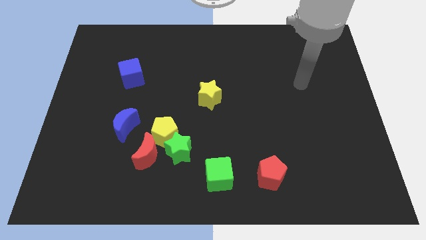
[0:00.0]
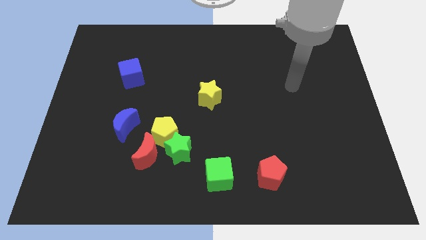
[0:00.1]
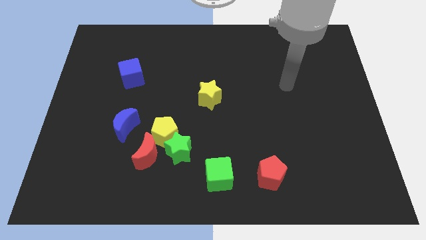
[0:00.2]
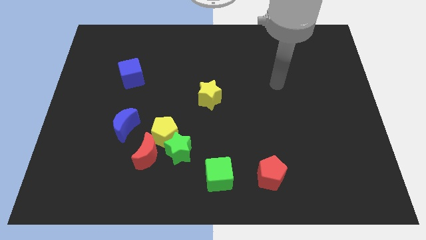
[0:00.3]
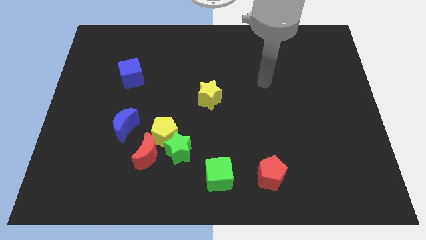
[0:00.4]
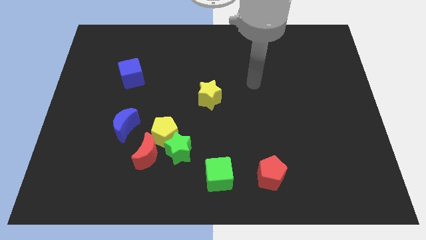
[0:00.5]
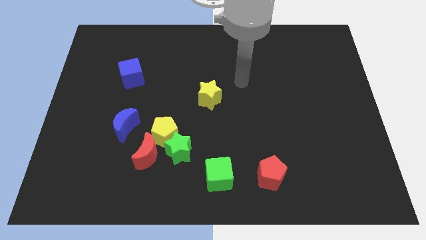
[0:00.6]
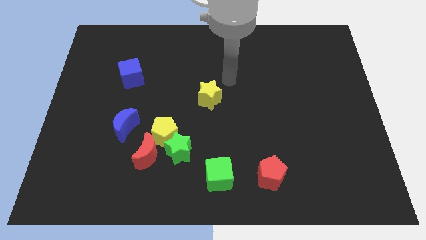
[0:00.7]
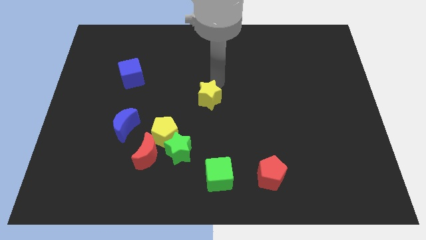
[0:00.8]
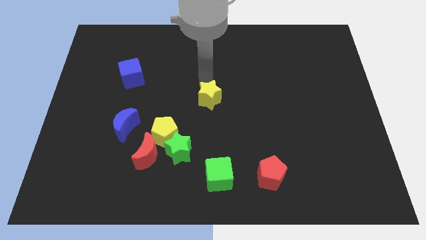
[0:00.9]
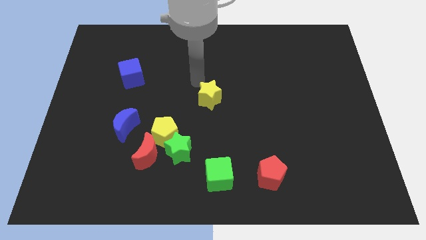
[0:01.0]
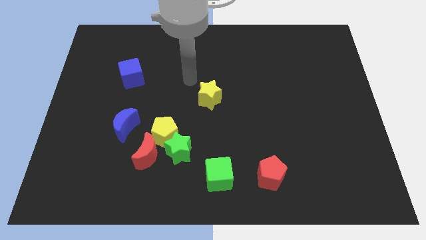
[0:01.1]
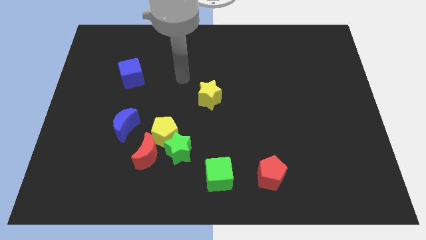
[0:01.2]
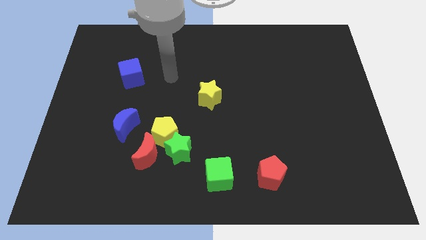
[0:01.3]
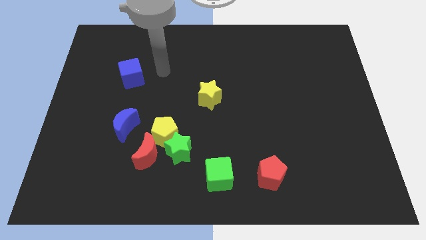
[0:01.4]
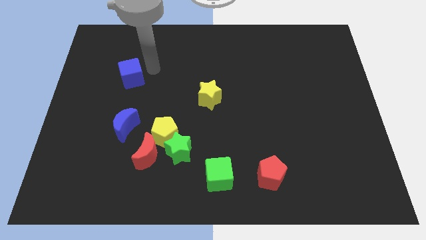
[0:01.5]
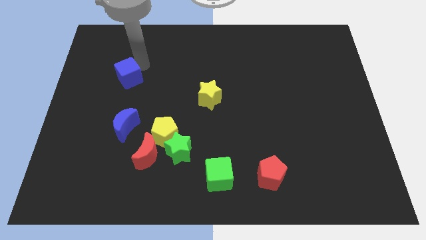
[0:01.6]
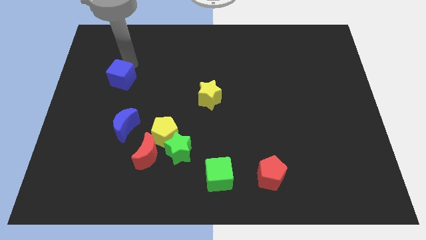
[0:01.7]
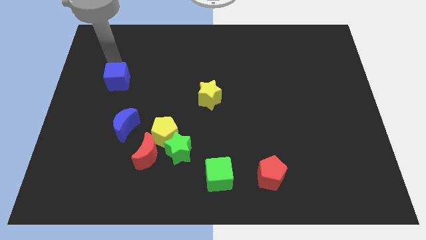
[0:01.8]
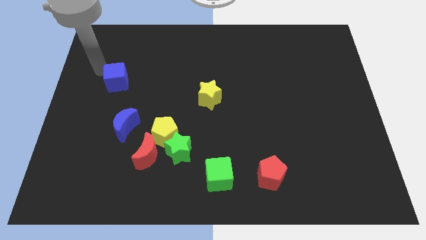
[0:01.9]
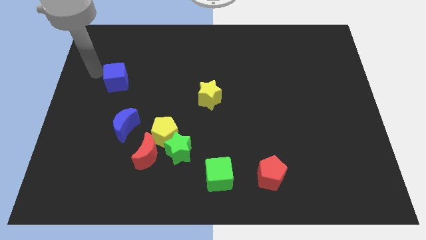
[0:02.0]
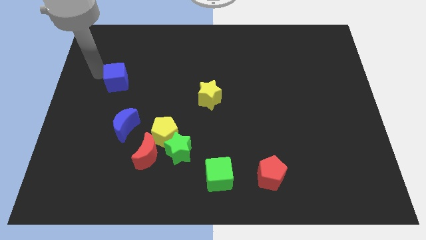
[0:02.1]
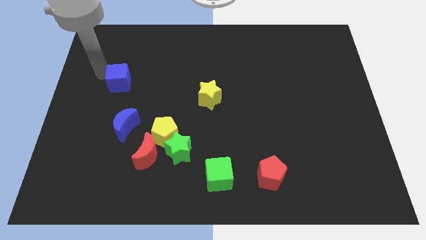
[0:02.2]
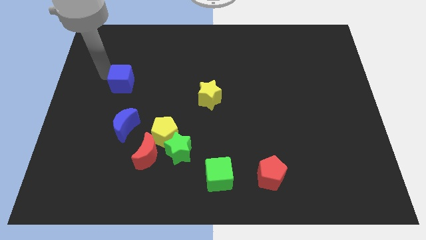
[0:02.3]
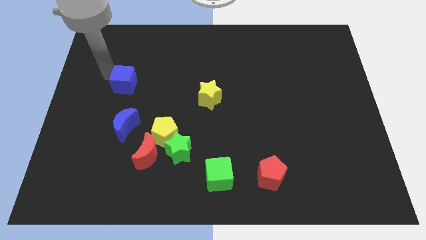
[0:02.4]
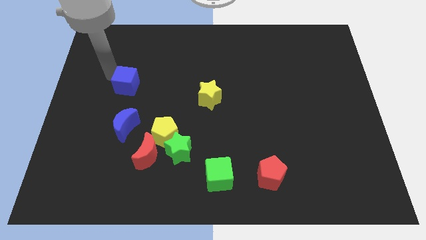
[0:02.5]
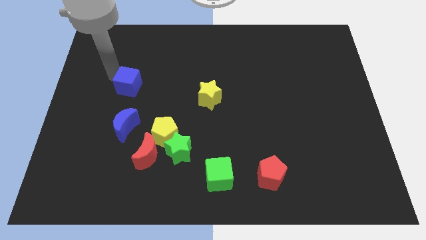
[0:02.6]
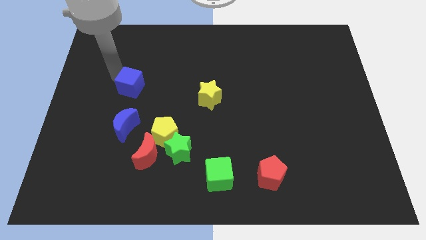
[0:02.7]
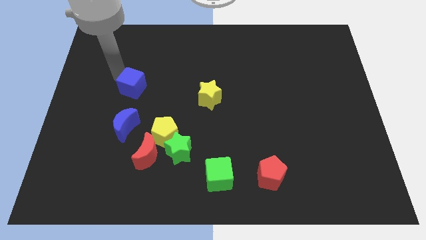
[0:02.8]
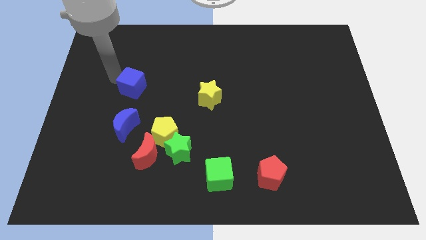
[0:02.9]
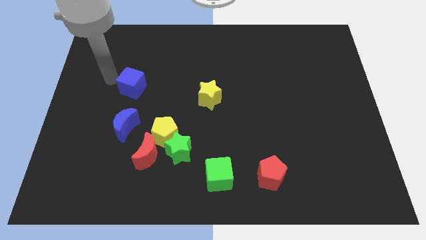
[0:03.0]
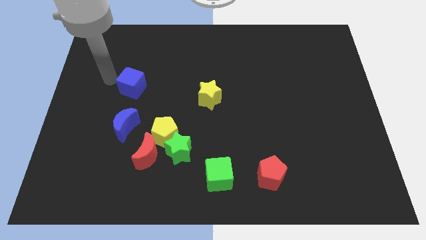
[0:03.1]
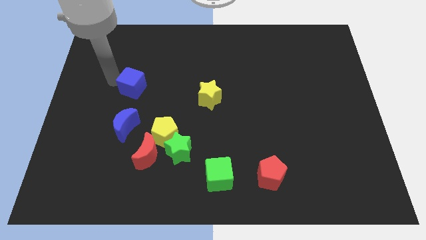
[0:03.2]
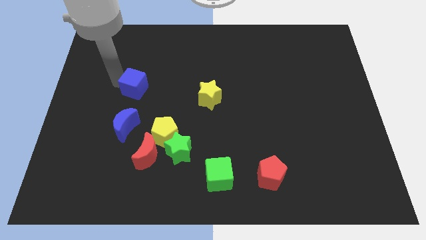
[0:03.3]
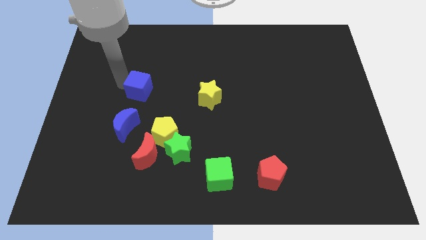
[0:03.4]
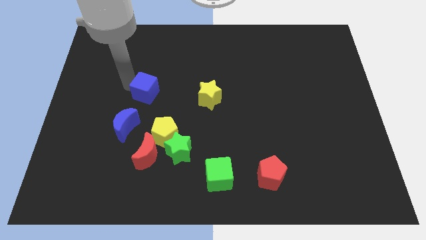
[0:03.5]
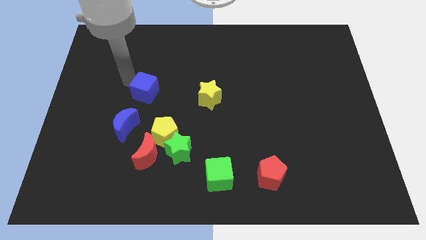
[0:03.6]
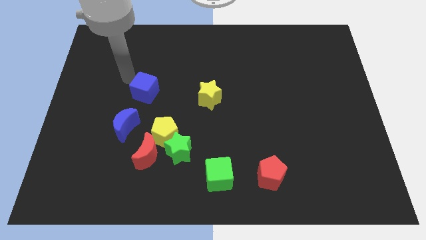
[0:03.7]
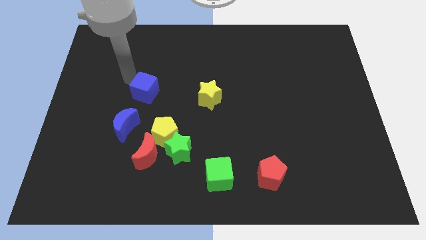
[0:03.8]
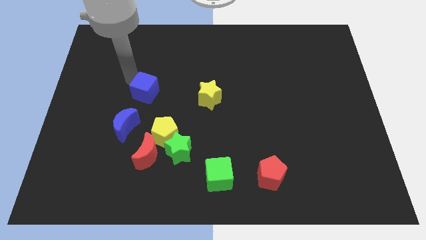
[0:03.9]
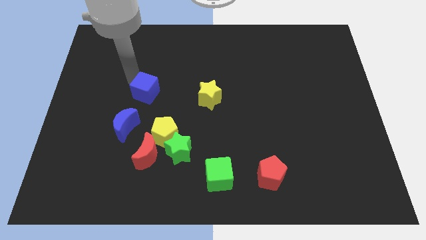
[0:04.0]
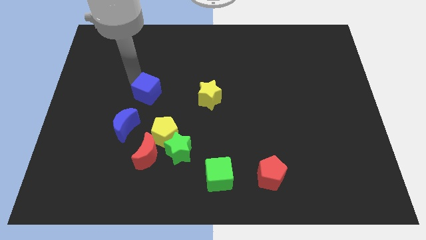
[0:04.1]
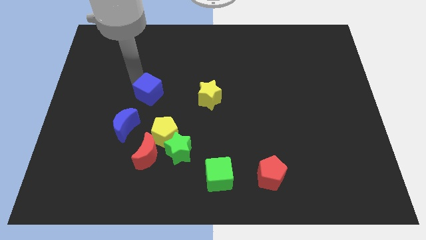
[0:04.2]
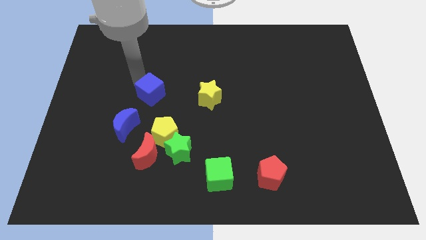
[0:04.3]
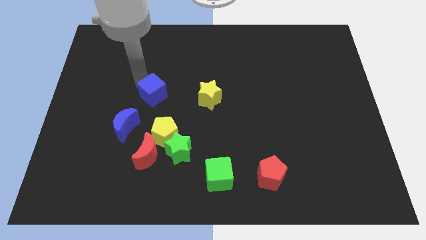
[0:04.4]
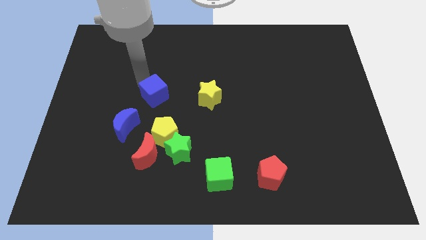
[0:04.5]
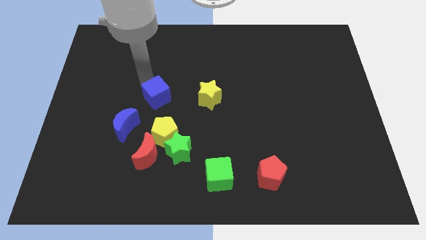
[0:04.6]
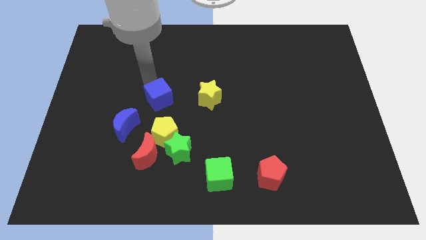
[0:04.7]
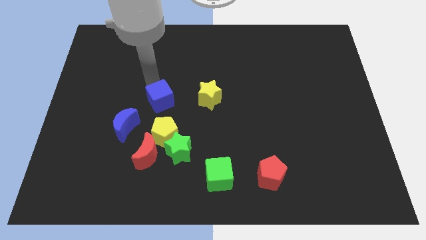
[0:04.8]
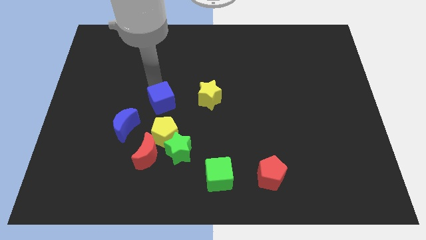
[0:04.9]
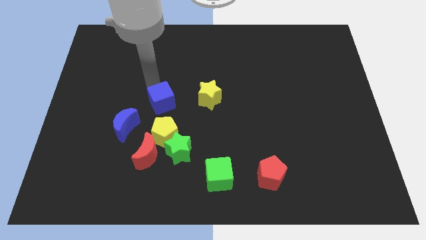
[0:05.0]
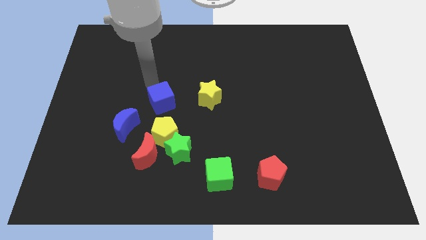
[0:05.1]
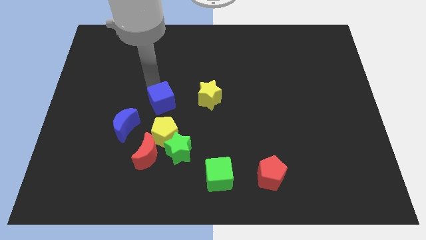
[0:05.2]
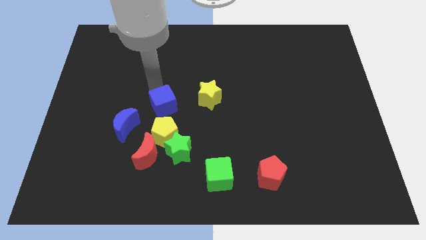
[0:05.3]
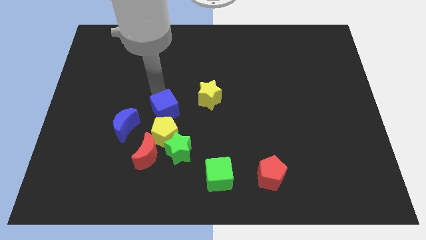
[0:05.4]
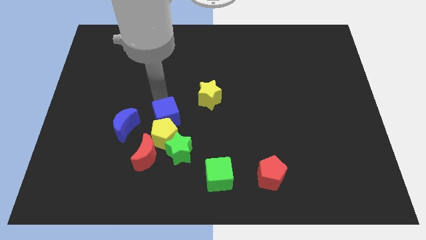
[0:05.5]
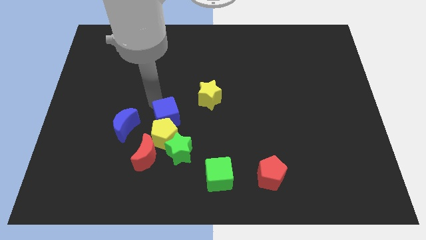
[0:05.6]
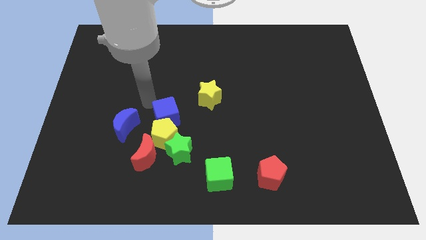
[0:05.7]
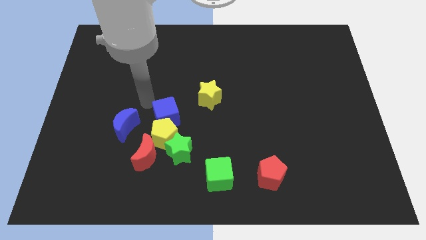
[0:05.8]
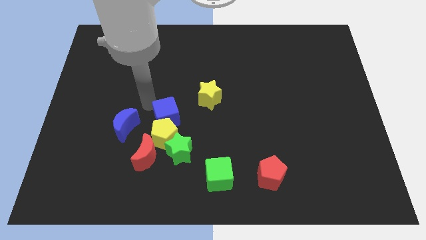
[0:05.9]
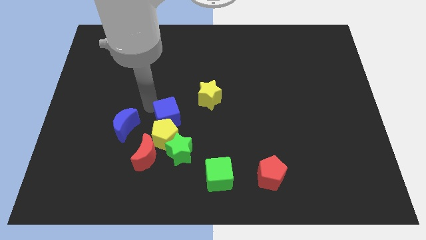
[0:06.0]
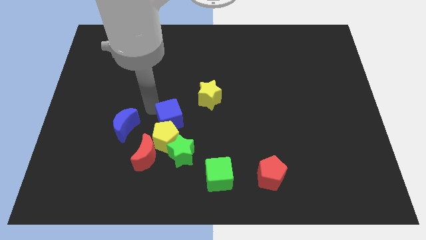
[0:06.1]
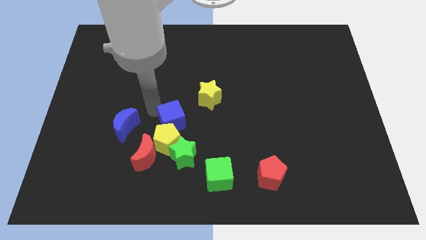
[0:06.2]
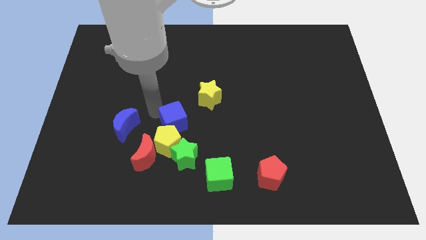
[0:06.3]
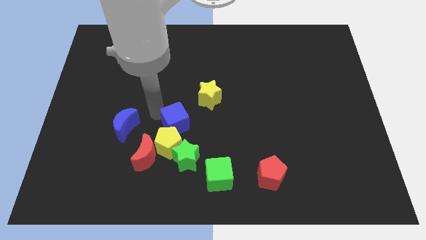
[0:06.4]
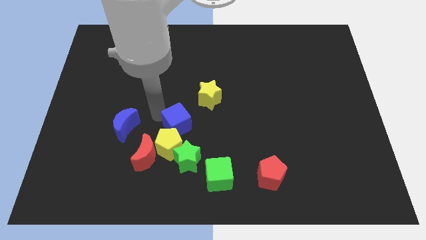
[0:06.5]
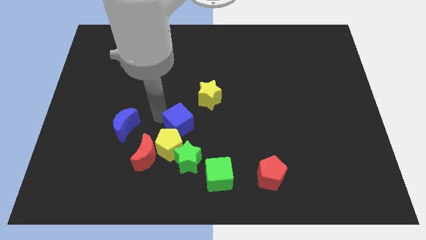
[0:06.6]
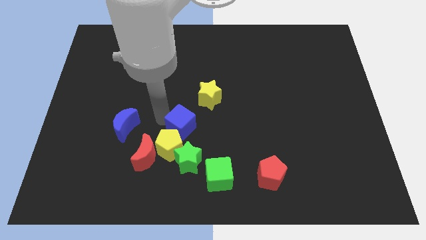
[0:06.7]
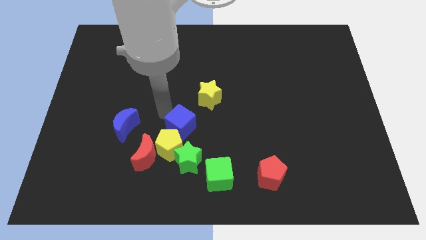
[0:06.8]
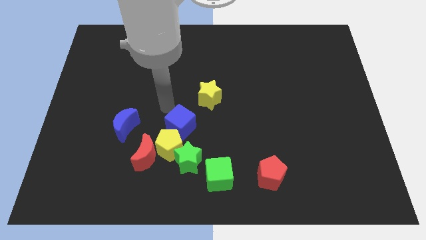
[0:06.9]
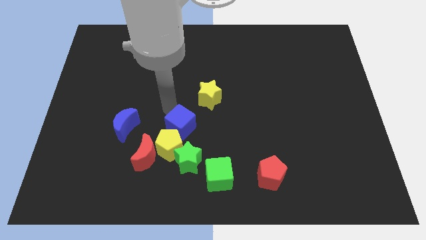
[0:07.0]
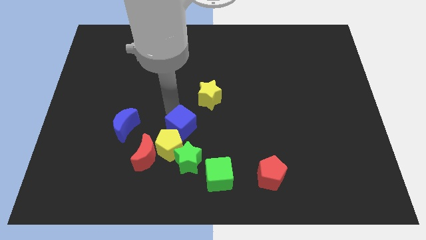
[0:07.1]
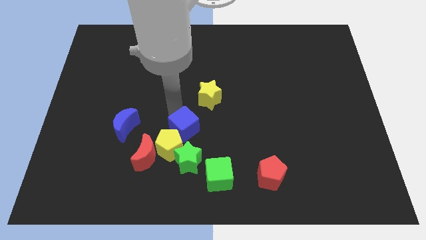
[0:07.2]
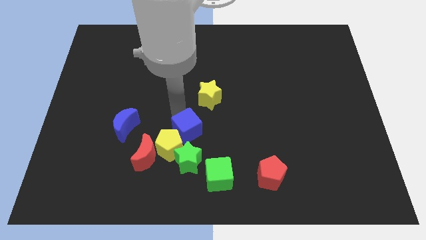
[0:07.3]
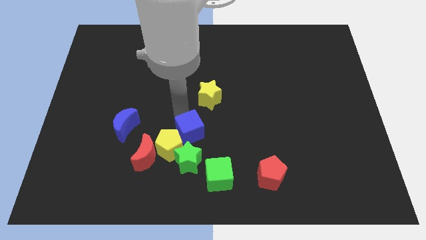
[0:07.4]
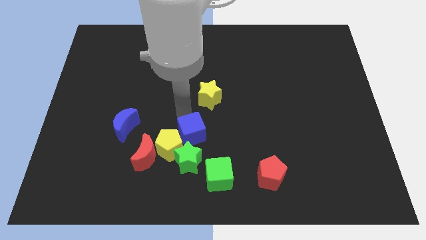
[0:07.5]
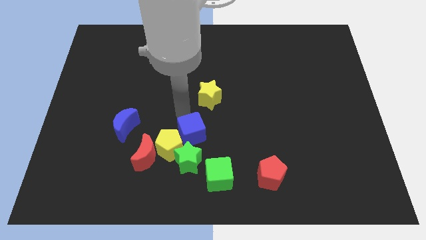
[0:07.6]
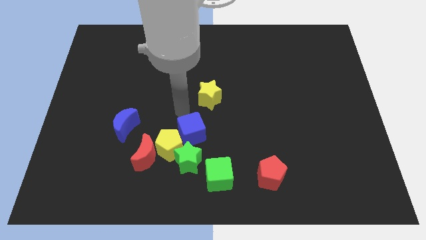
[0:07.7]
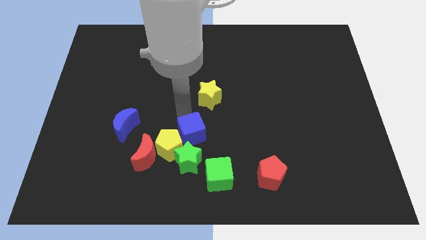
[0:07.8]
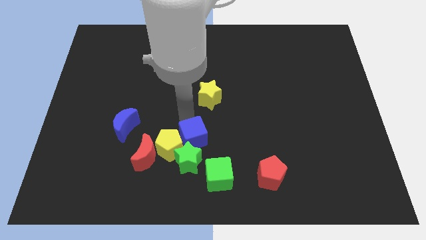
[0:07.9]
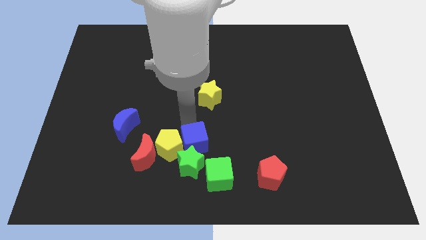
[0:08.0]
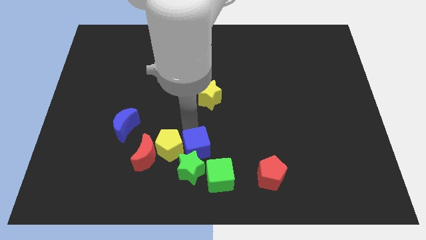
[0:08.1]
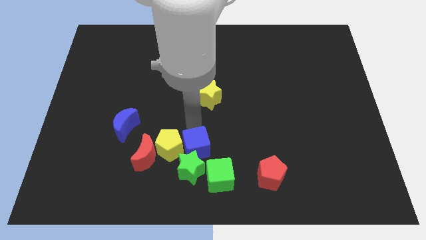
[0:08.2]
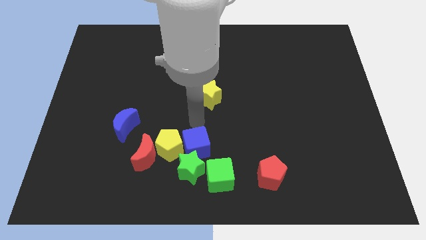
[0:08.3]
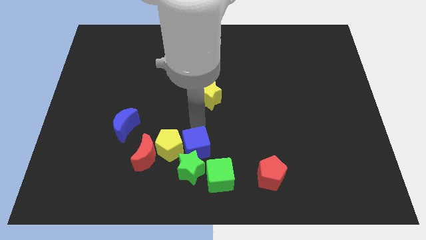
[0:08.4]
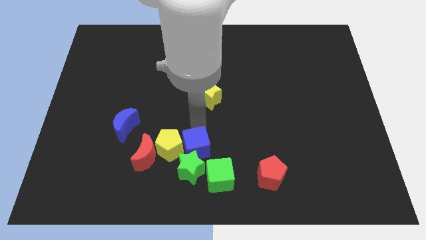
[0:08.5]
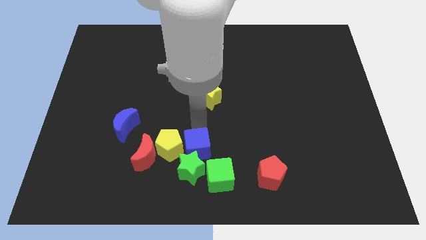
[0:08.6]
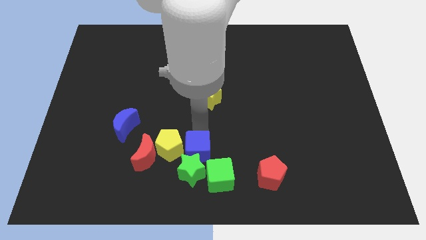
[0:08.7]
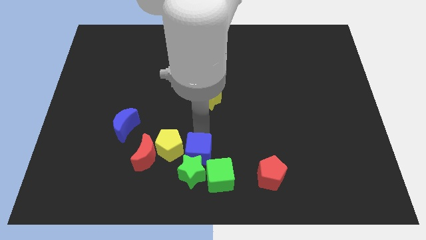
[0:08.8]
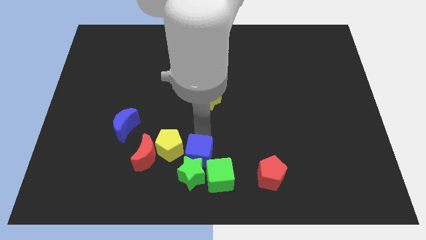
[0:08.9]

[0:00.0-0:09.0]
slide the blue cube to the bottom side
